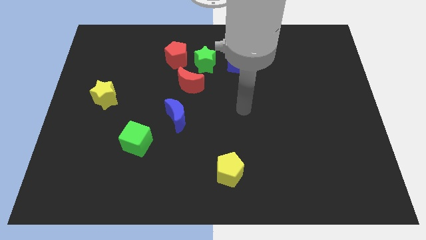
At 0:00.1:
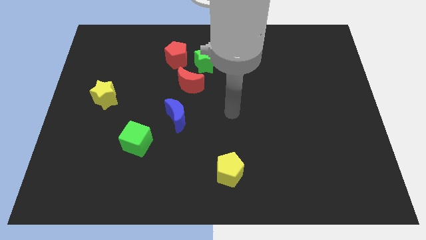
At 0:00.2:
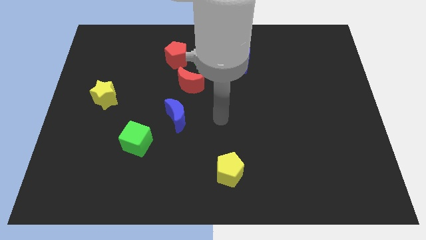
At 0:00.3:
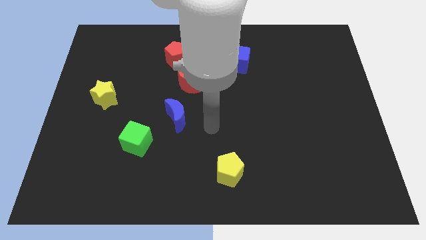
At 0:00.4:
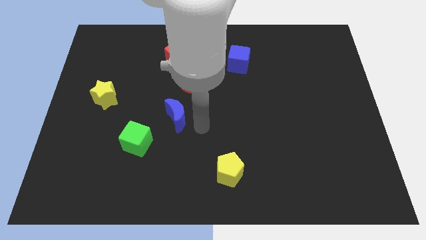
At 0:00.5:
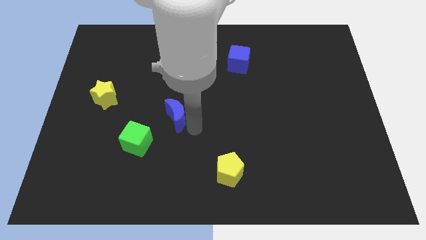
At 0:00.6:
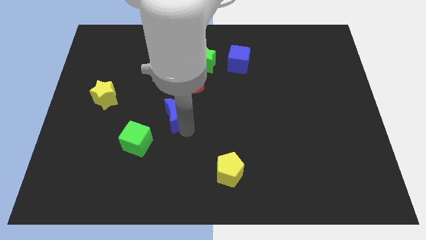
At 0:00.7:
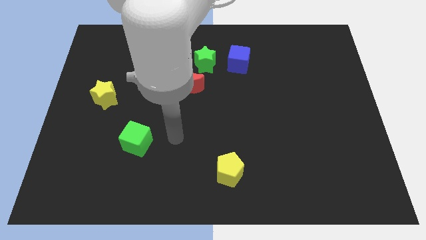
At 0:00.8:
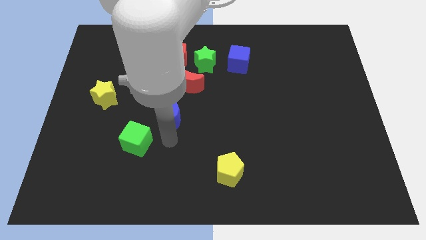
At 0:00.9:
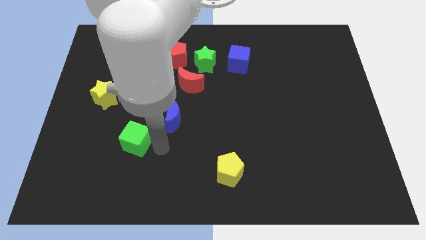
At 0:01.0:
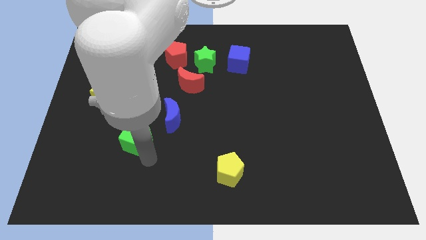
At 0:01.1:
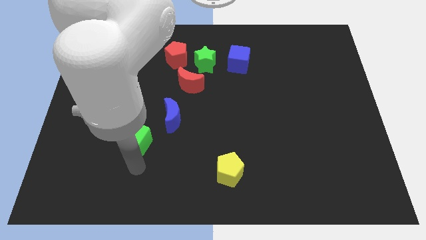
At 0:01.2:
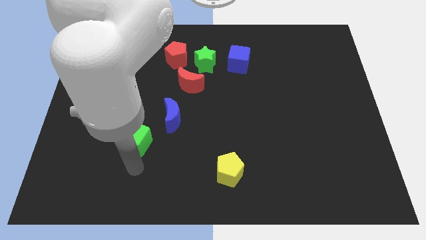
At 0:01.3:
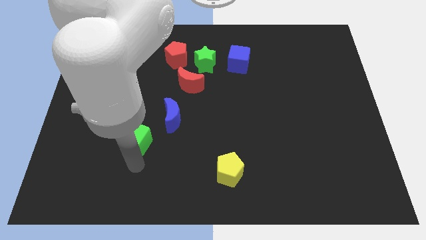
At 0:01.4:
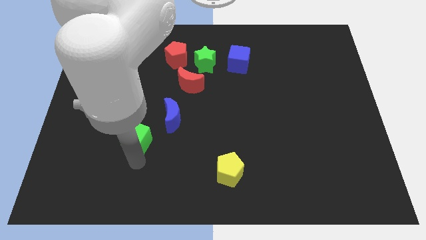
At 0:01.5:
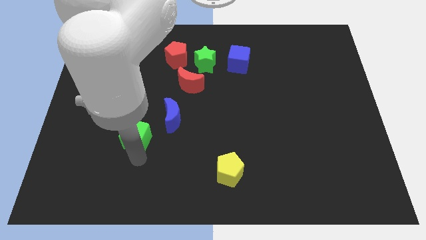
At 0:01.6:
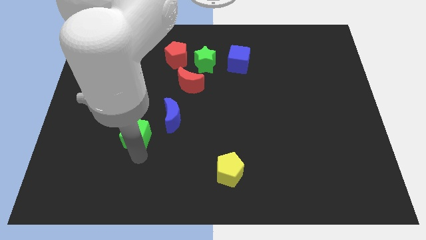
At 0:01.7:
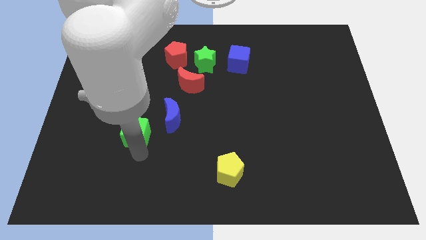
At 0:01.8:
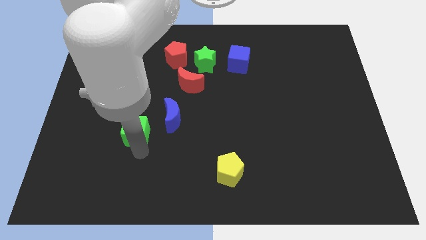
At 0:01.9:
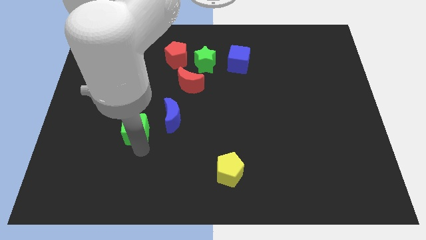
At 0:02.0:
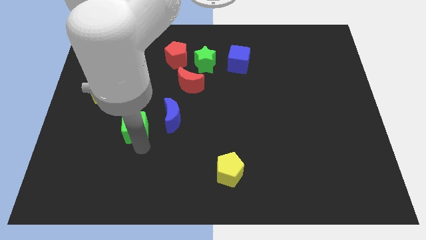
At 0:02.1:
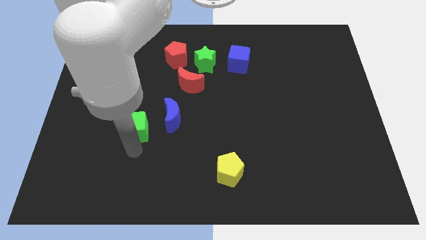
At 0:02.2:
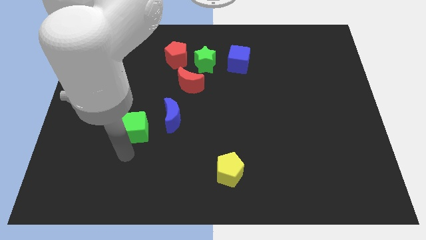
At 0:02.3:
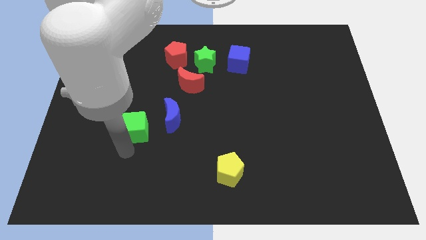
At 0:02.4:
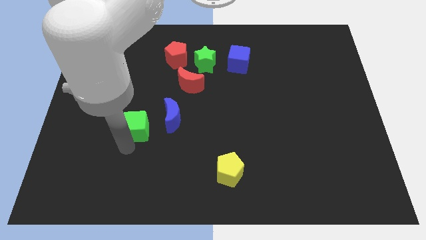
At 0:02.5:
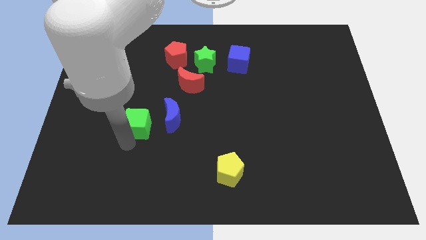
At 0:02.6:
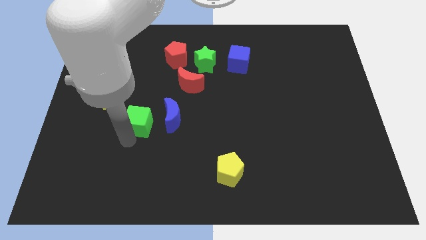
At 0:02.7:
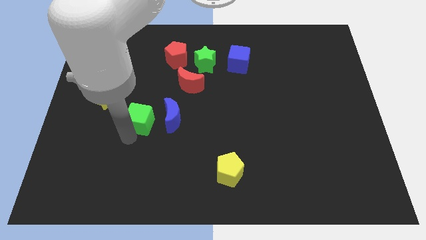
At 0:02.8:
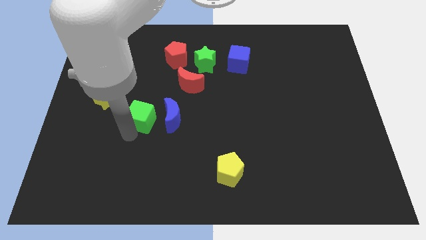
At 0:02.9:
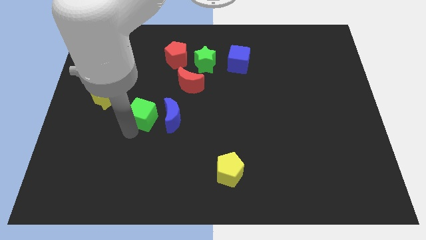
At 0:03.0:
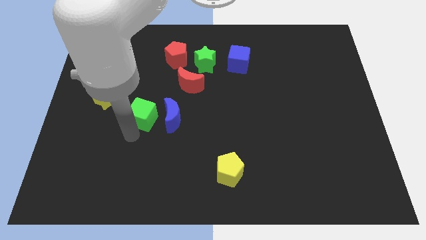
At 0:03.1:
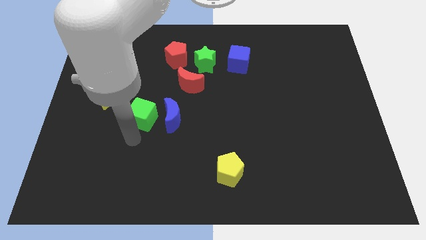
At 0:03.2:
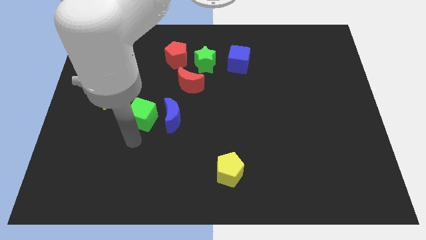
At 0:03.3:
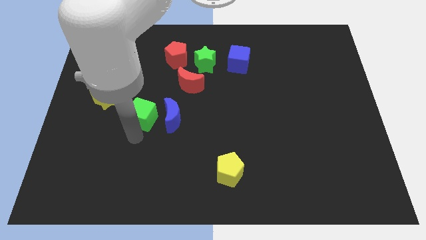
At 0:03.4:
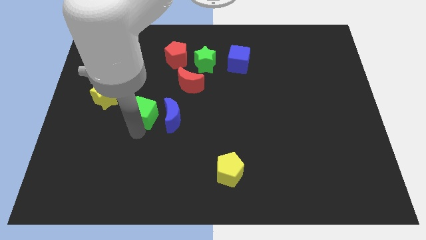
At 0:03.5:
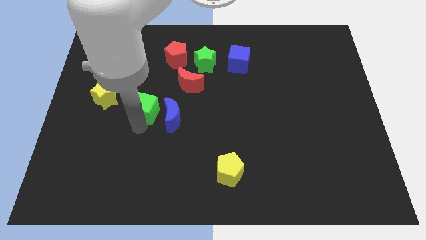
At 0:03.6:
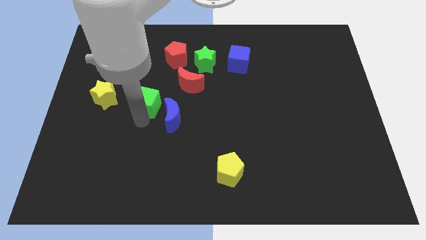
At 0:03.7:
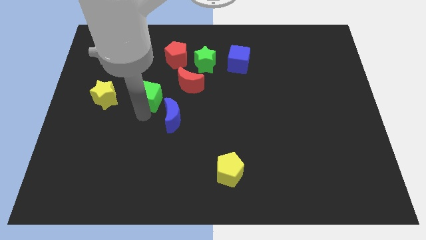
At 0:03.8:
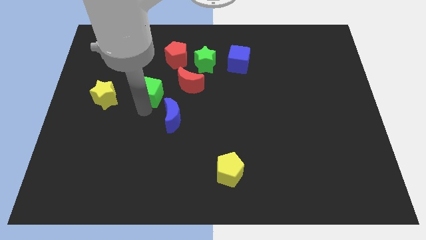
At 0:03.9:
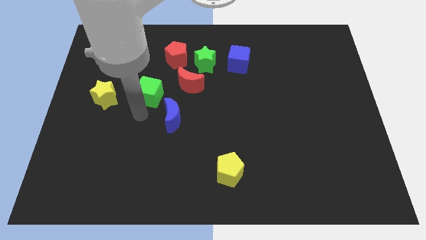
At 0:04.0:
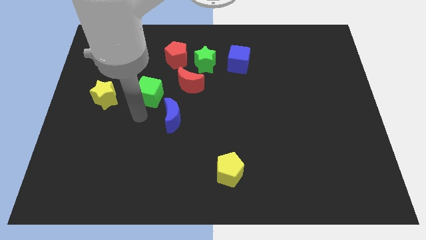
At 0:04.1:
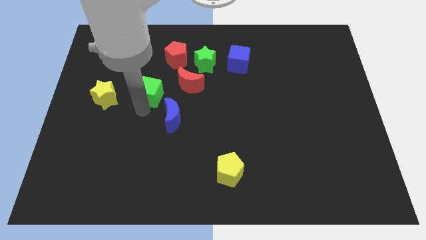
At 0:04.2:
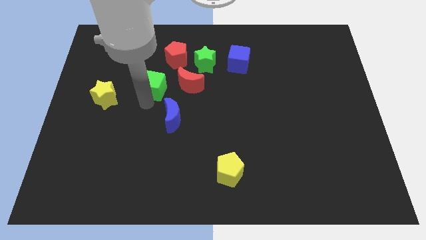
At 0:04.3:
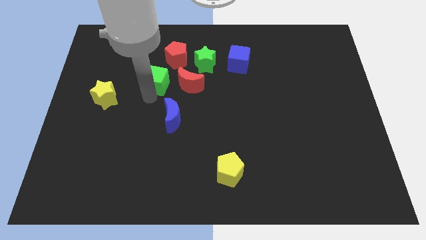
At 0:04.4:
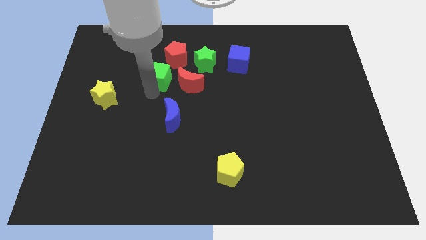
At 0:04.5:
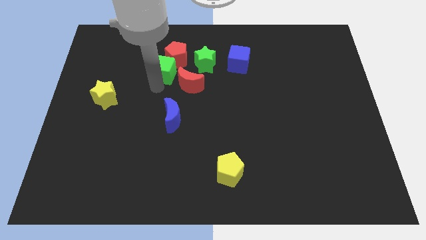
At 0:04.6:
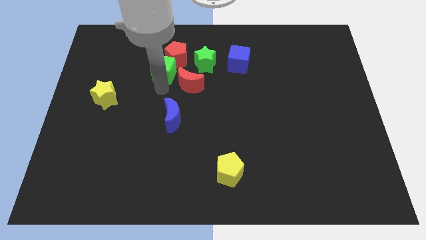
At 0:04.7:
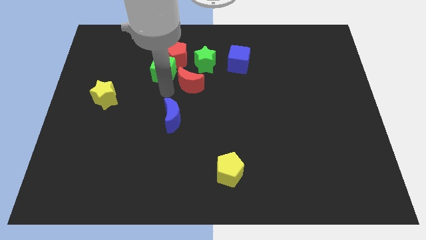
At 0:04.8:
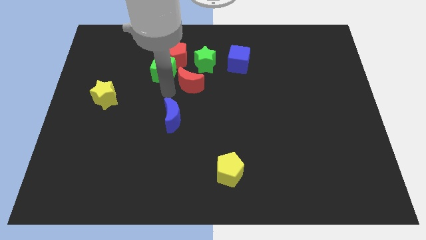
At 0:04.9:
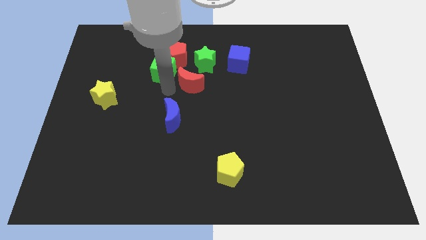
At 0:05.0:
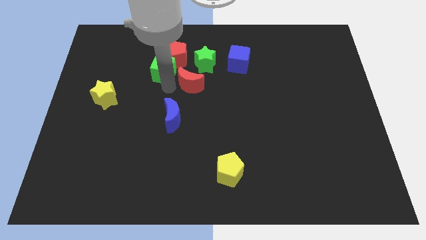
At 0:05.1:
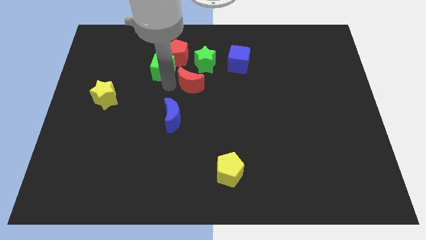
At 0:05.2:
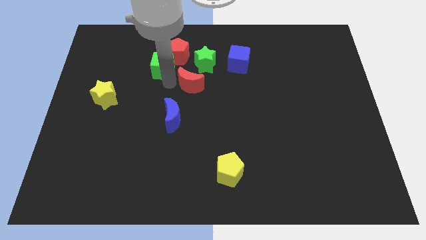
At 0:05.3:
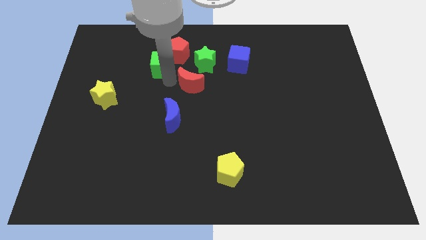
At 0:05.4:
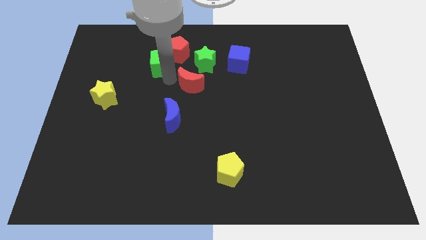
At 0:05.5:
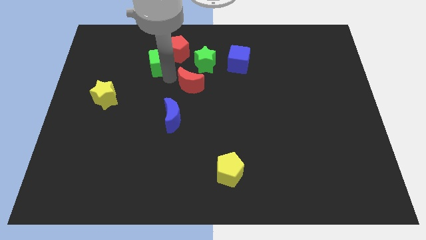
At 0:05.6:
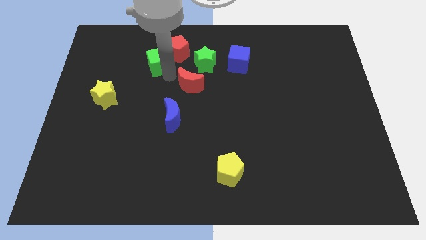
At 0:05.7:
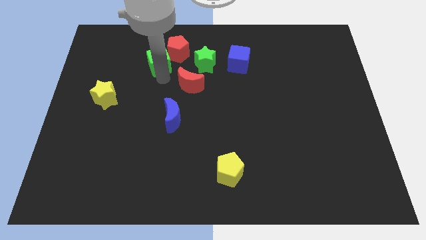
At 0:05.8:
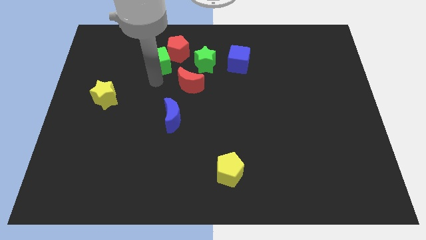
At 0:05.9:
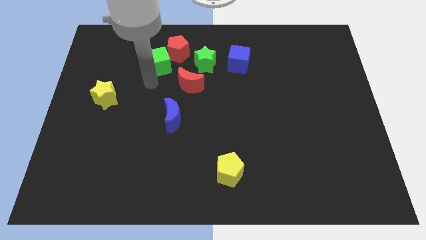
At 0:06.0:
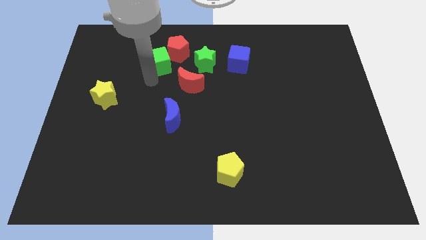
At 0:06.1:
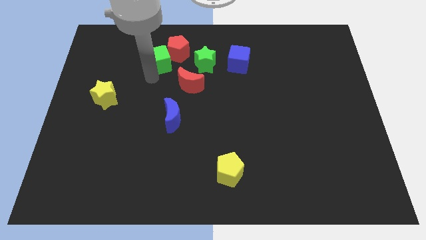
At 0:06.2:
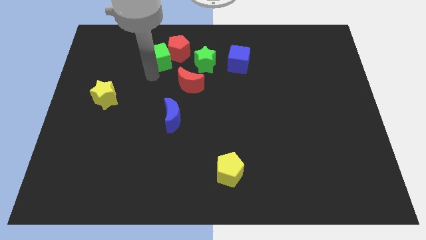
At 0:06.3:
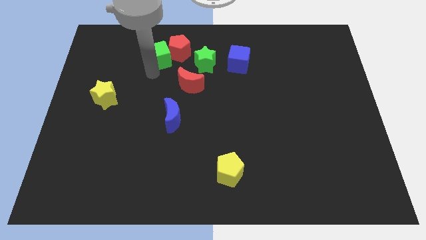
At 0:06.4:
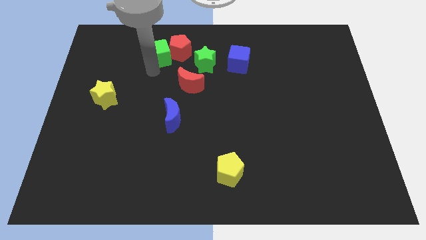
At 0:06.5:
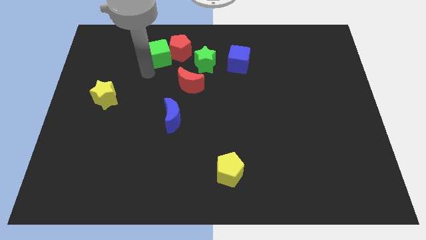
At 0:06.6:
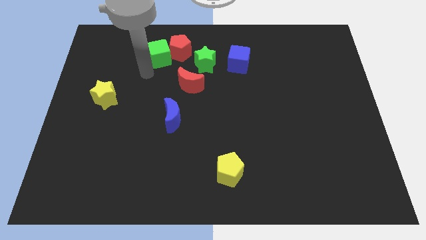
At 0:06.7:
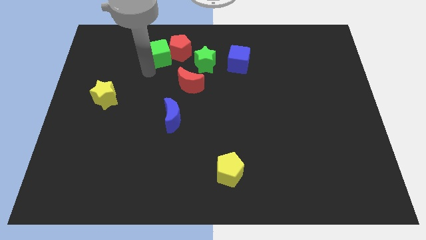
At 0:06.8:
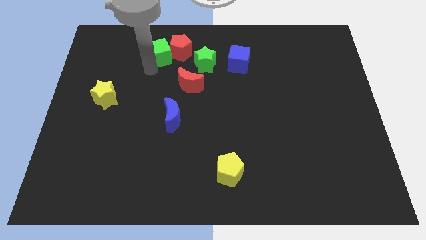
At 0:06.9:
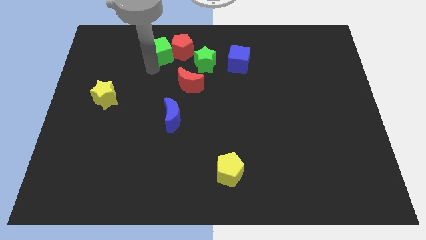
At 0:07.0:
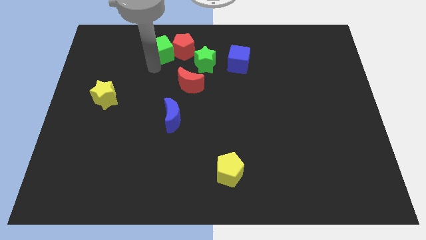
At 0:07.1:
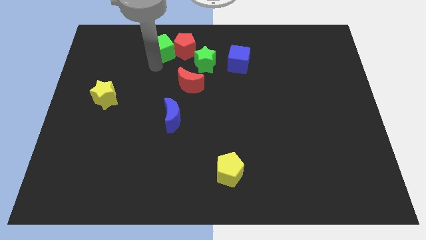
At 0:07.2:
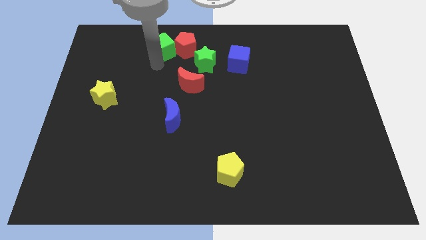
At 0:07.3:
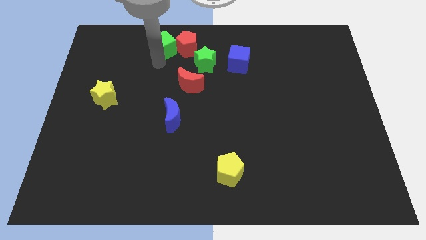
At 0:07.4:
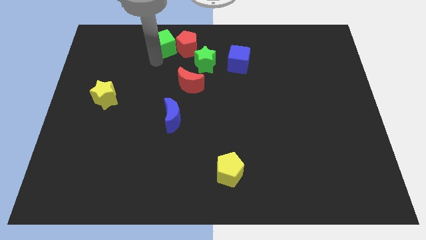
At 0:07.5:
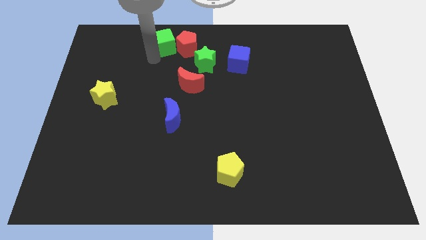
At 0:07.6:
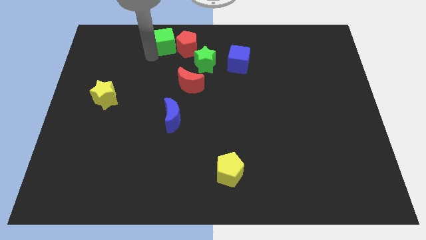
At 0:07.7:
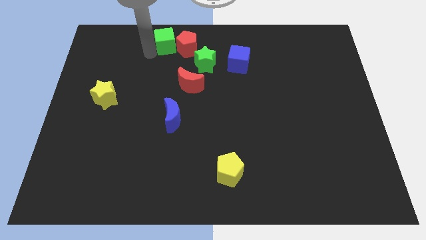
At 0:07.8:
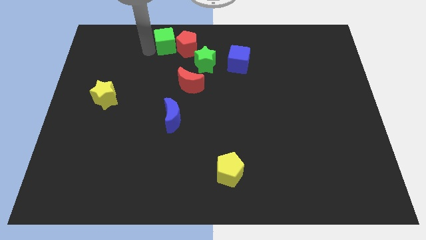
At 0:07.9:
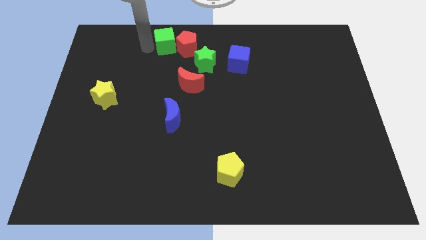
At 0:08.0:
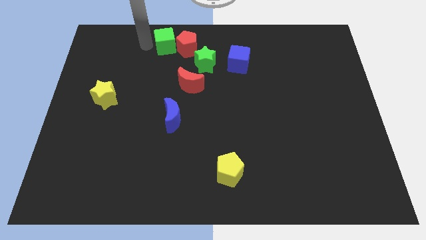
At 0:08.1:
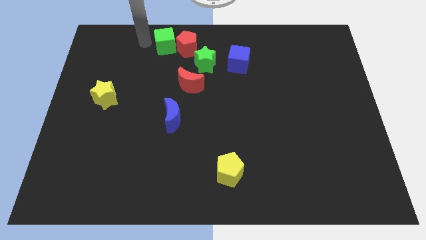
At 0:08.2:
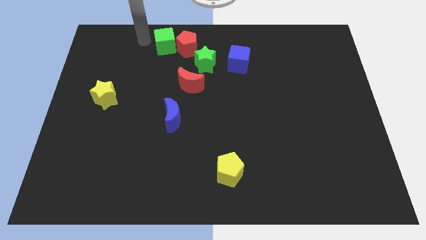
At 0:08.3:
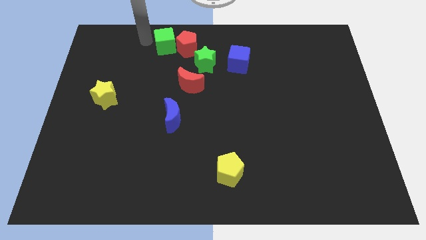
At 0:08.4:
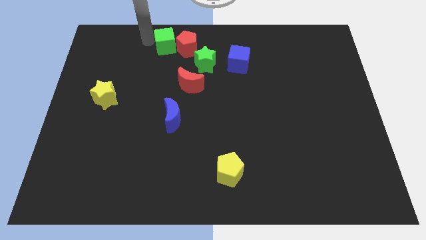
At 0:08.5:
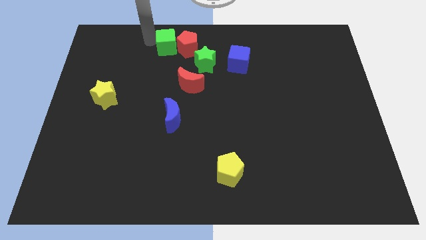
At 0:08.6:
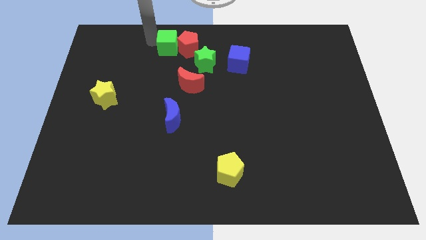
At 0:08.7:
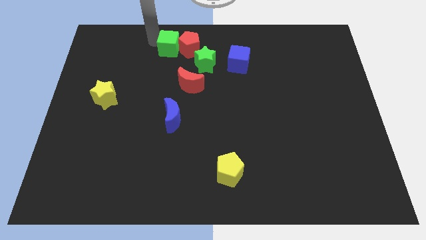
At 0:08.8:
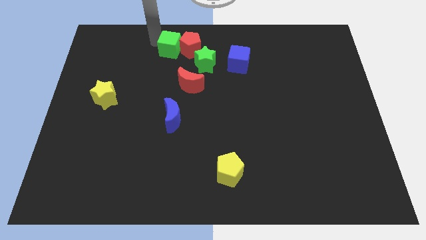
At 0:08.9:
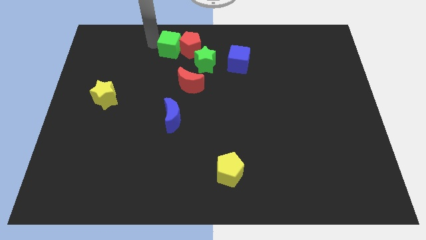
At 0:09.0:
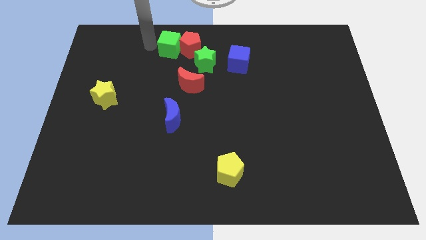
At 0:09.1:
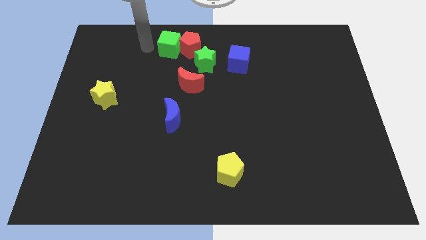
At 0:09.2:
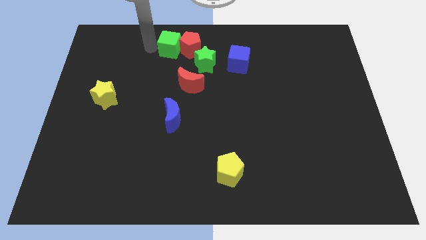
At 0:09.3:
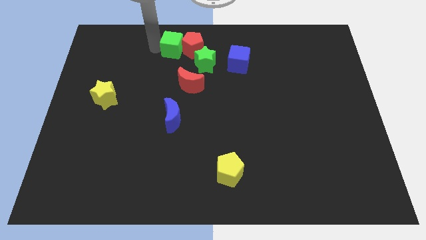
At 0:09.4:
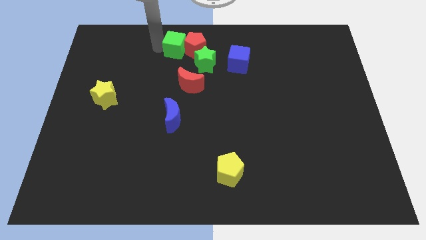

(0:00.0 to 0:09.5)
push the green cube above the red moon
